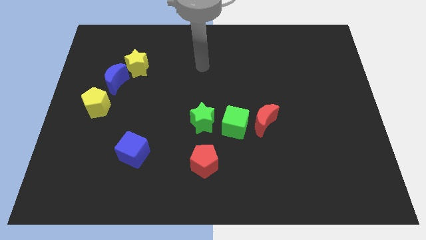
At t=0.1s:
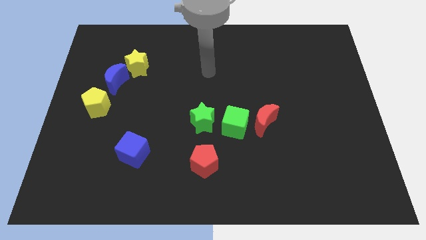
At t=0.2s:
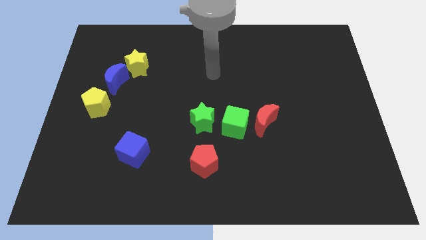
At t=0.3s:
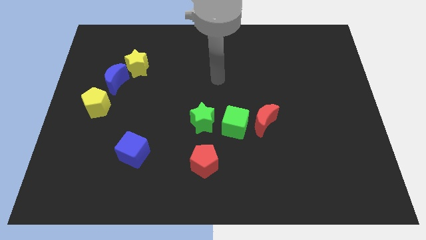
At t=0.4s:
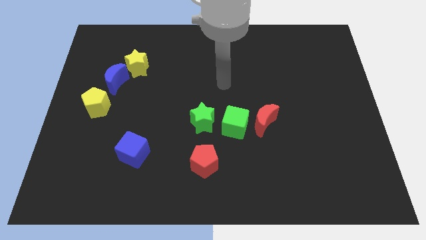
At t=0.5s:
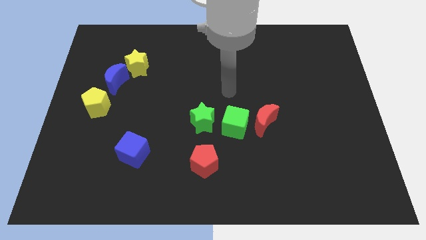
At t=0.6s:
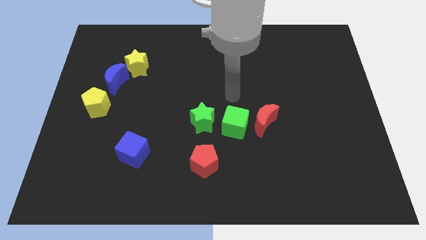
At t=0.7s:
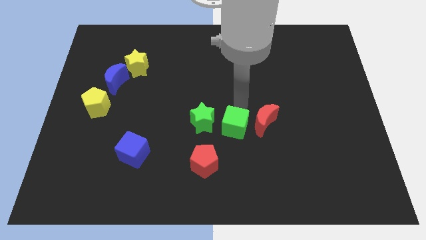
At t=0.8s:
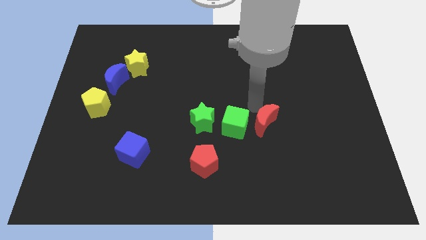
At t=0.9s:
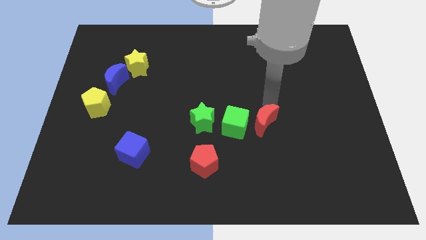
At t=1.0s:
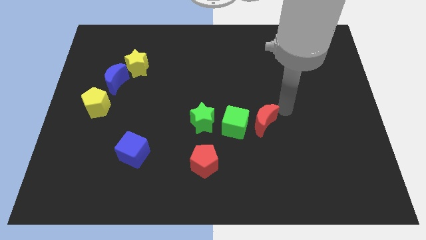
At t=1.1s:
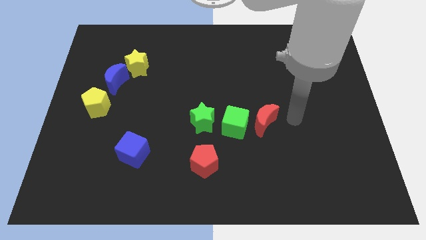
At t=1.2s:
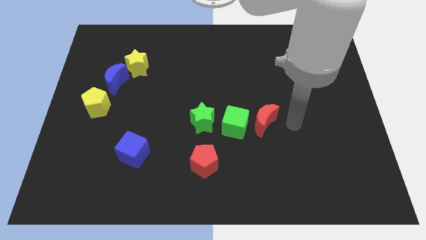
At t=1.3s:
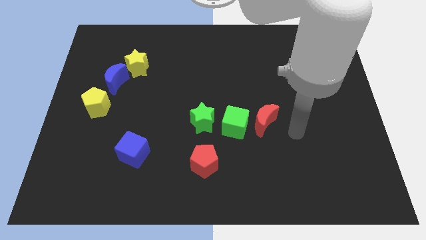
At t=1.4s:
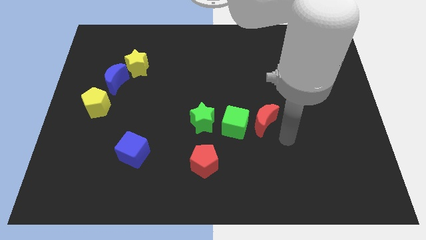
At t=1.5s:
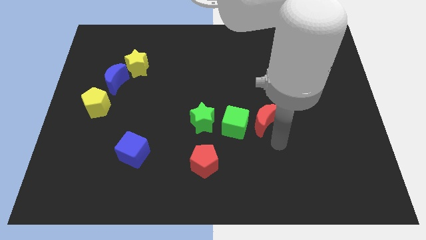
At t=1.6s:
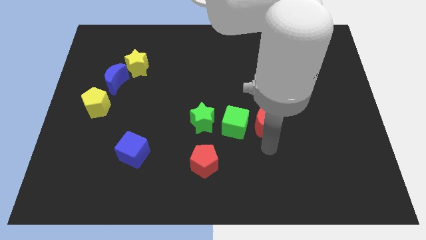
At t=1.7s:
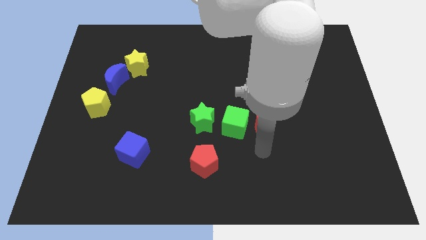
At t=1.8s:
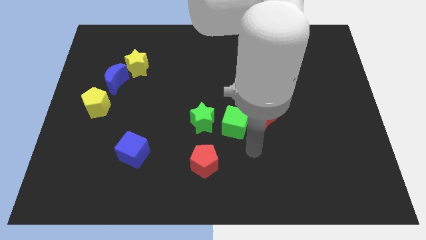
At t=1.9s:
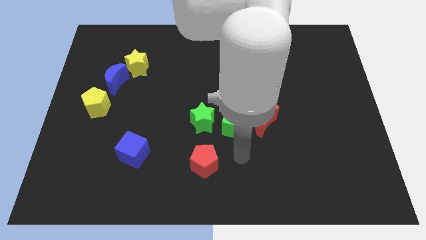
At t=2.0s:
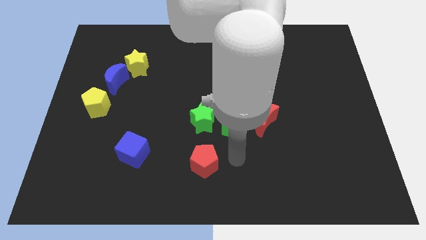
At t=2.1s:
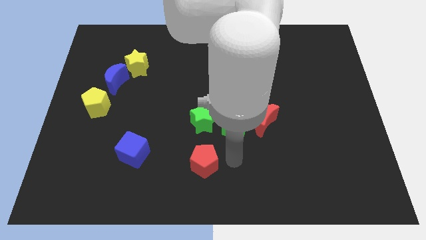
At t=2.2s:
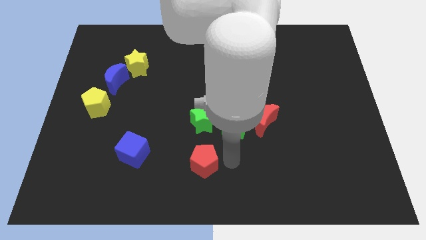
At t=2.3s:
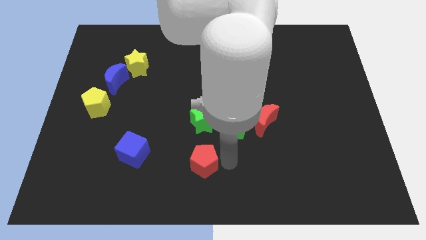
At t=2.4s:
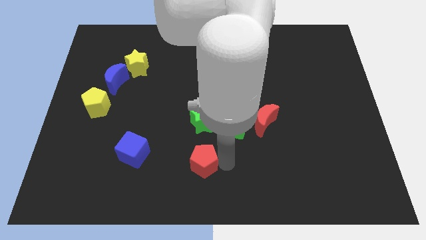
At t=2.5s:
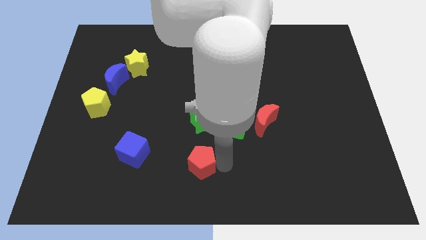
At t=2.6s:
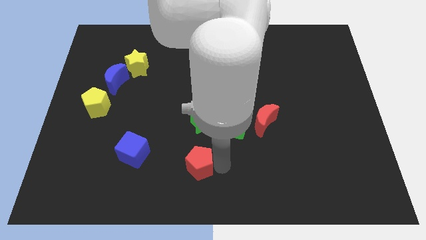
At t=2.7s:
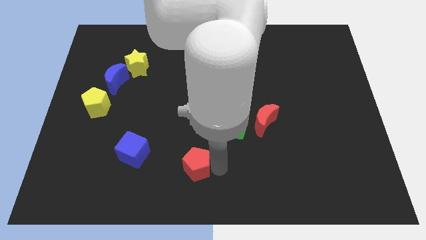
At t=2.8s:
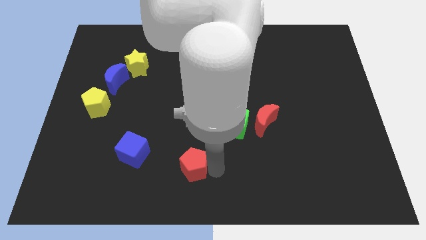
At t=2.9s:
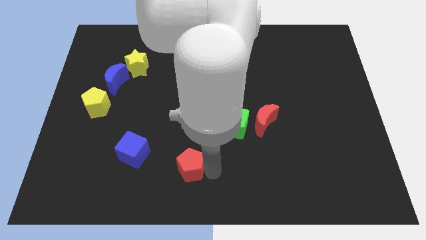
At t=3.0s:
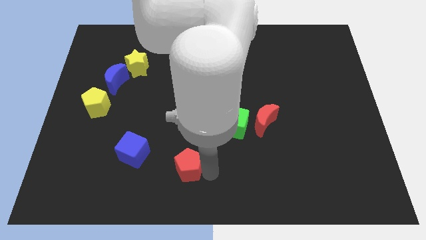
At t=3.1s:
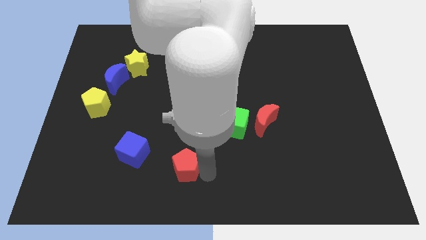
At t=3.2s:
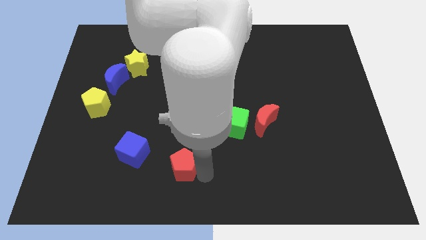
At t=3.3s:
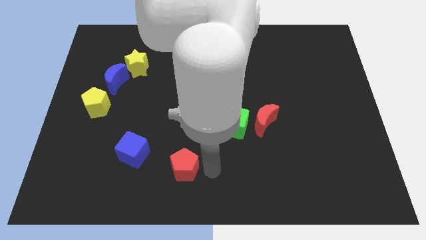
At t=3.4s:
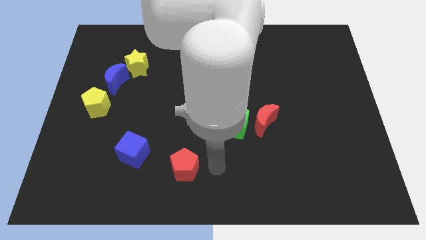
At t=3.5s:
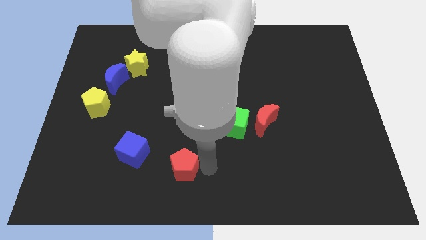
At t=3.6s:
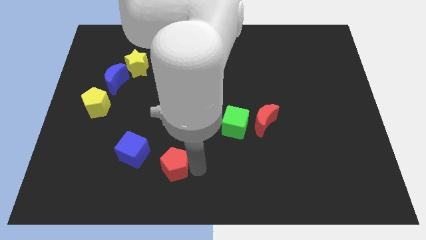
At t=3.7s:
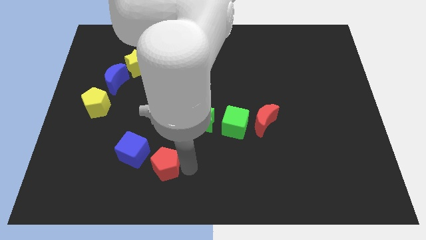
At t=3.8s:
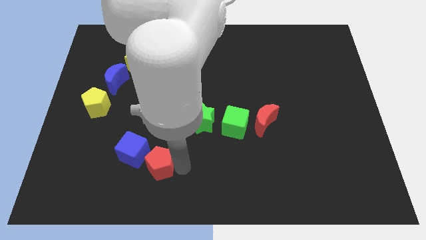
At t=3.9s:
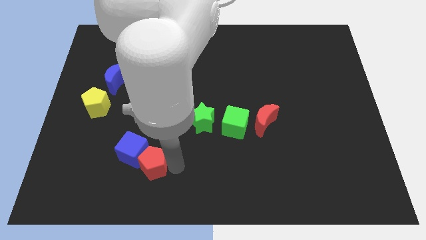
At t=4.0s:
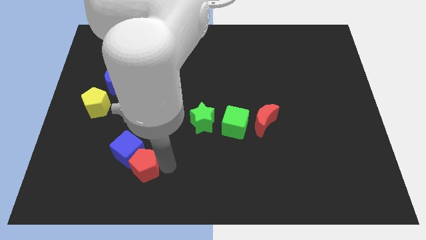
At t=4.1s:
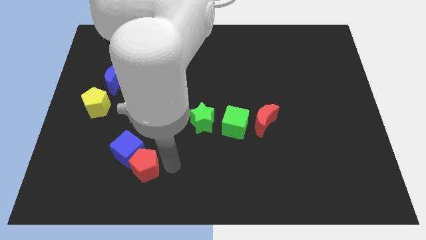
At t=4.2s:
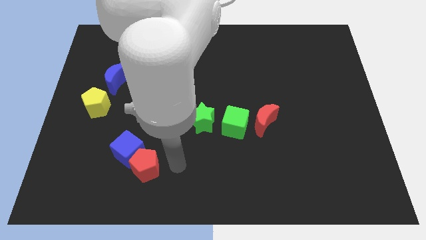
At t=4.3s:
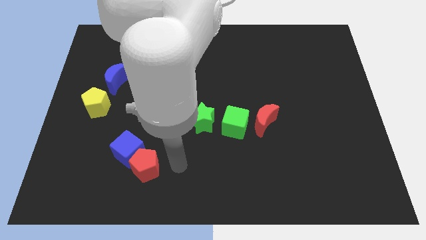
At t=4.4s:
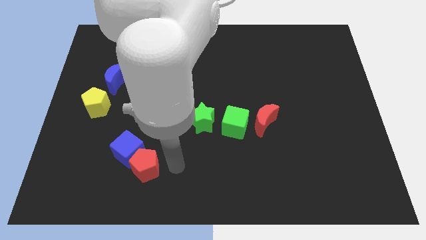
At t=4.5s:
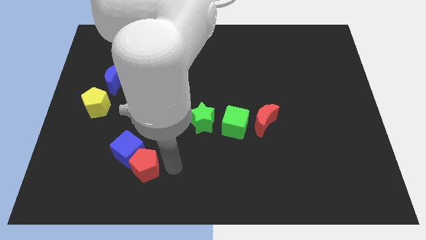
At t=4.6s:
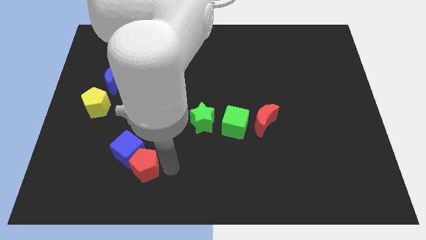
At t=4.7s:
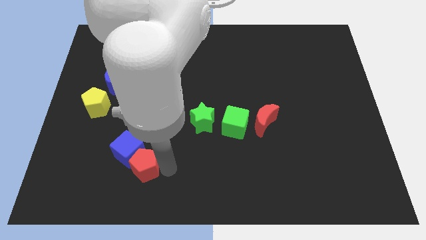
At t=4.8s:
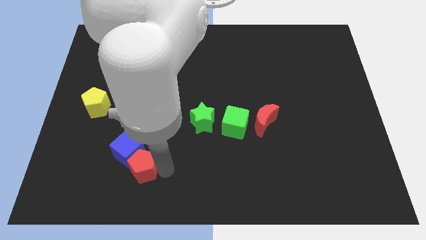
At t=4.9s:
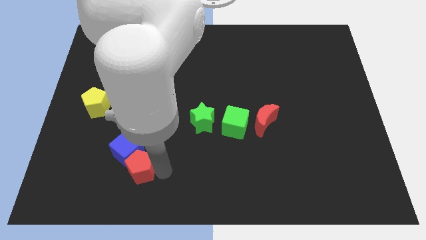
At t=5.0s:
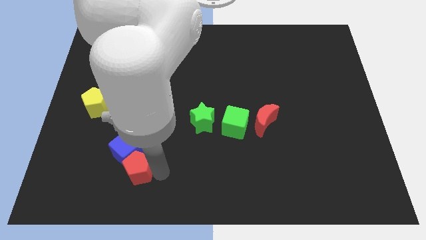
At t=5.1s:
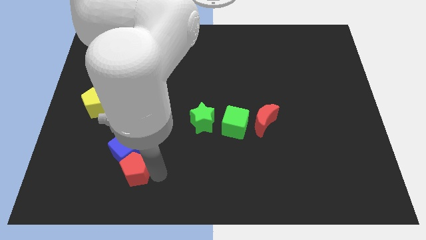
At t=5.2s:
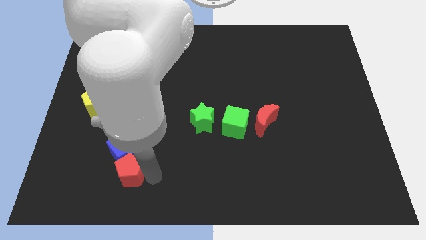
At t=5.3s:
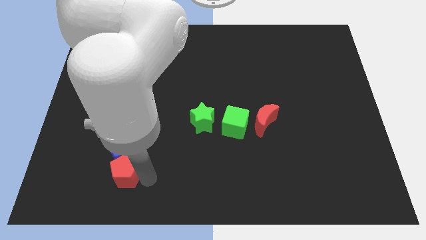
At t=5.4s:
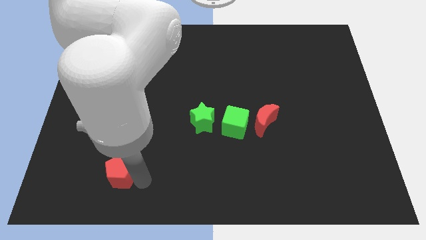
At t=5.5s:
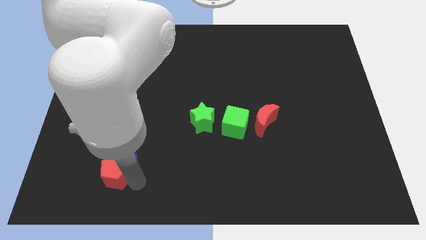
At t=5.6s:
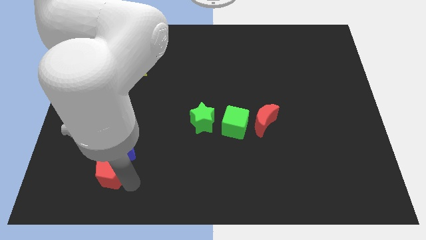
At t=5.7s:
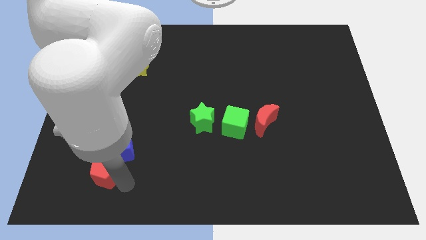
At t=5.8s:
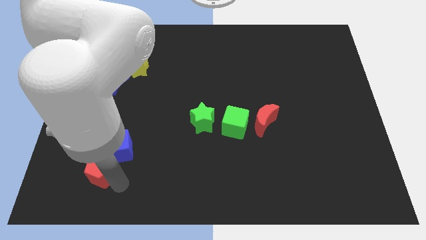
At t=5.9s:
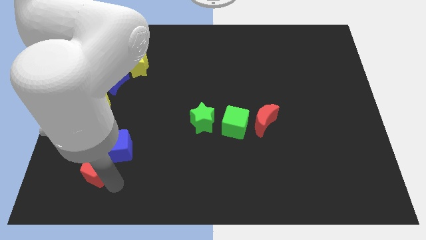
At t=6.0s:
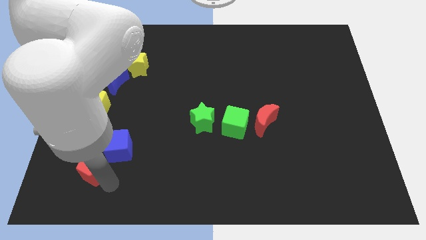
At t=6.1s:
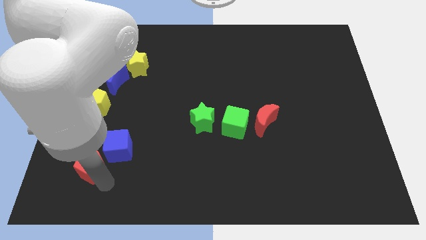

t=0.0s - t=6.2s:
put the red pentagon left of the blue cube

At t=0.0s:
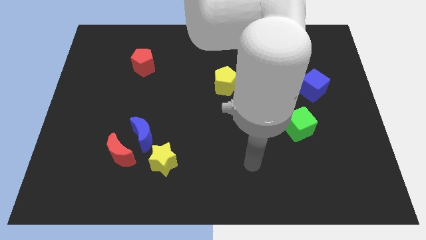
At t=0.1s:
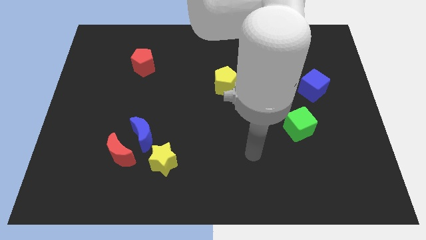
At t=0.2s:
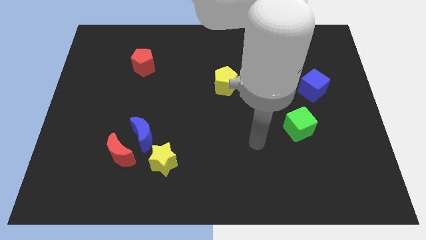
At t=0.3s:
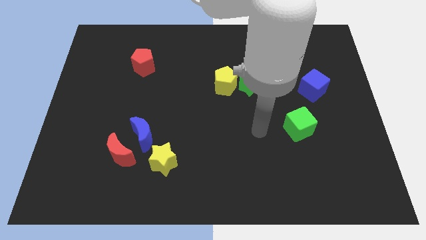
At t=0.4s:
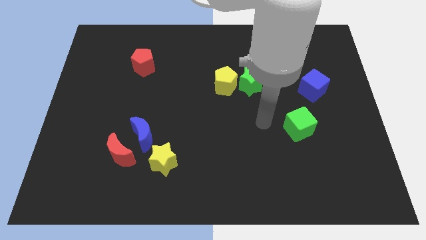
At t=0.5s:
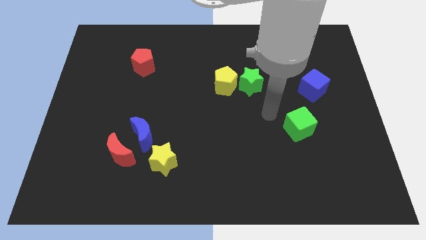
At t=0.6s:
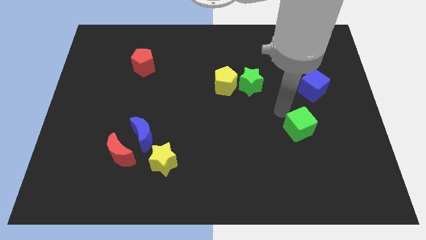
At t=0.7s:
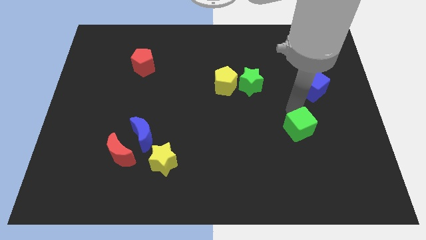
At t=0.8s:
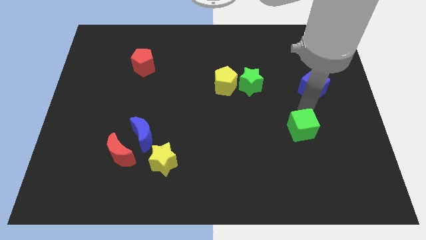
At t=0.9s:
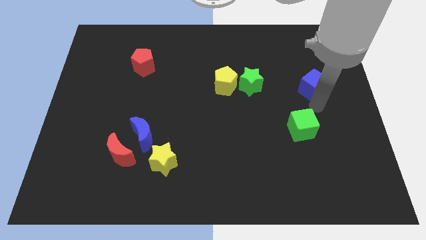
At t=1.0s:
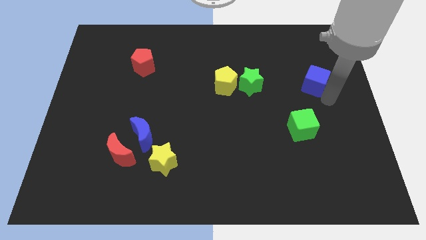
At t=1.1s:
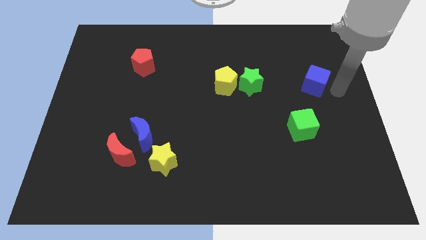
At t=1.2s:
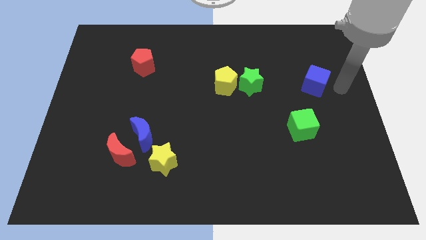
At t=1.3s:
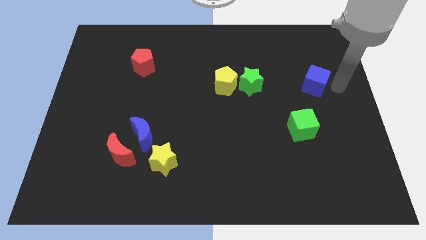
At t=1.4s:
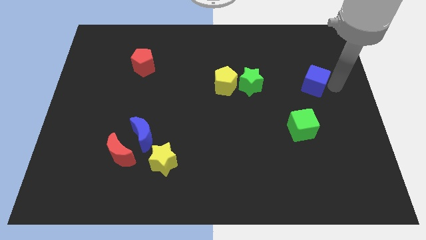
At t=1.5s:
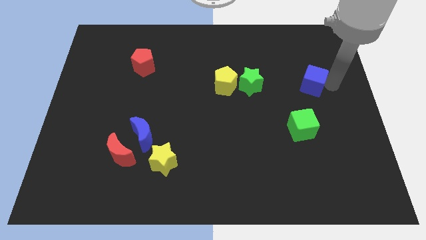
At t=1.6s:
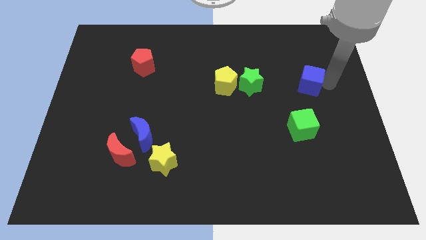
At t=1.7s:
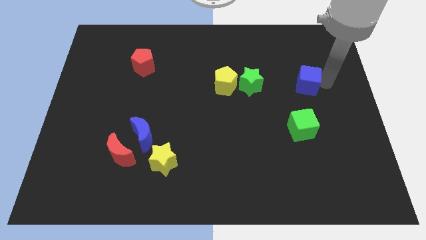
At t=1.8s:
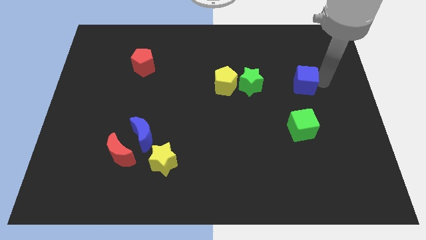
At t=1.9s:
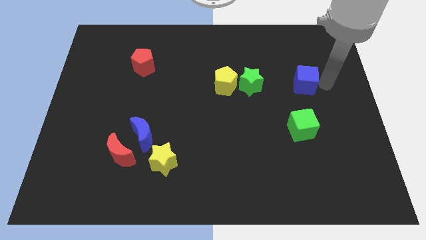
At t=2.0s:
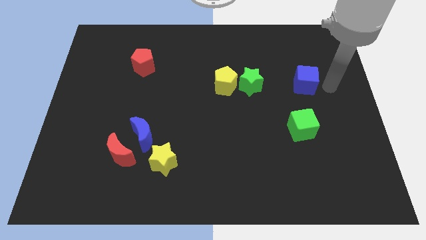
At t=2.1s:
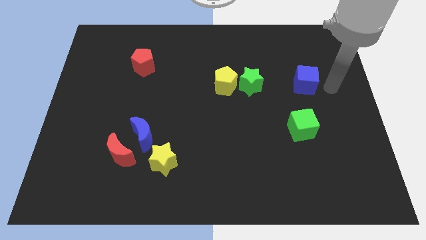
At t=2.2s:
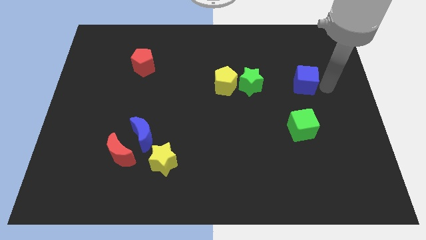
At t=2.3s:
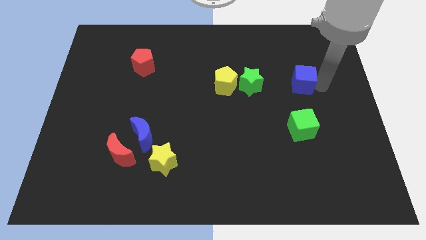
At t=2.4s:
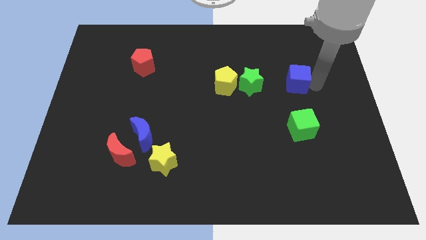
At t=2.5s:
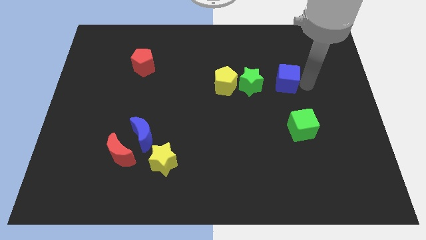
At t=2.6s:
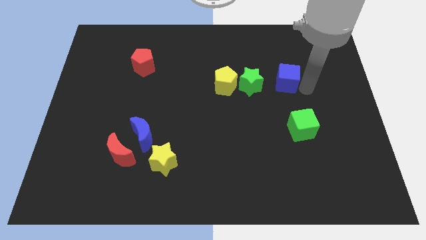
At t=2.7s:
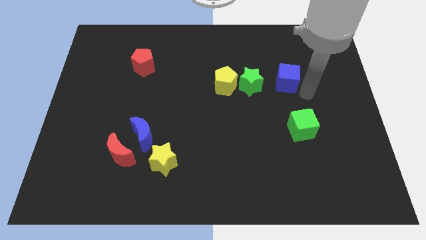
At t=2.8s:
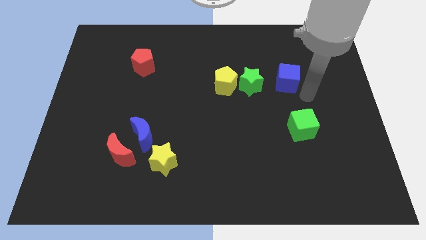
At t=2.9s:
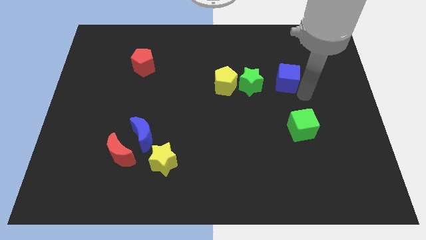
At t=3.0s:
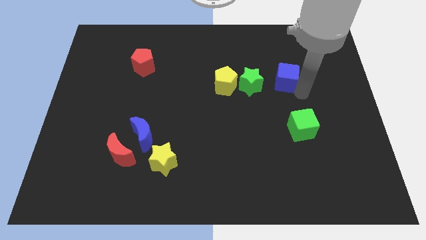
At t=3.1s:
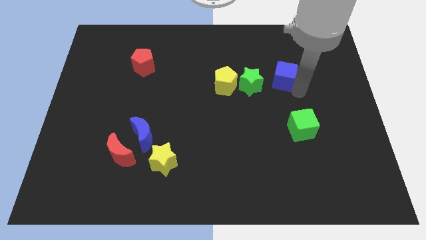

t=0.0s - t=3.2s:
put the blue cube to the top right of the green star
